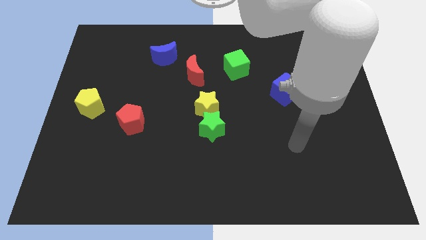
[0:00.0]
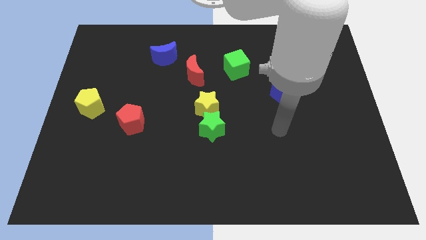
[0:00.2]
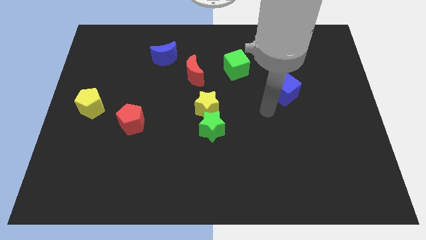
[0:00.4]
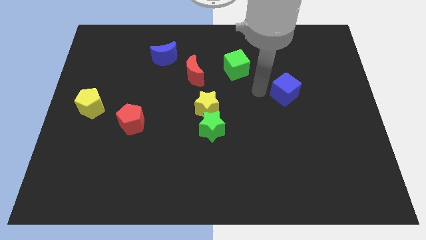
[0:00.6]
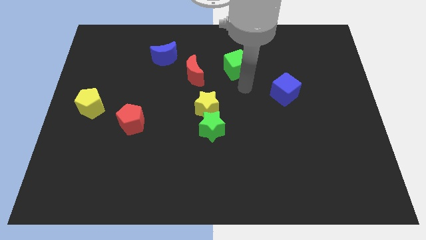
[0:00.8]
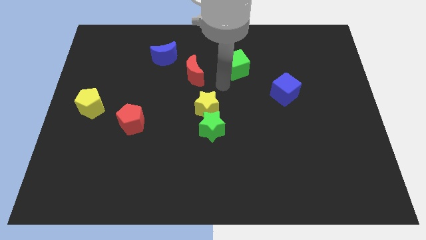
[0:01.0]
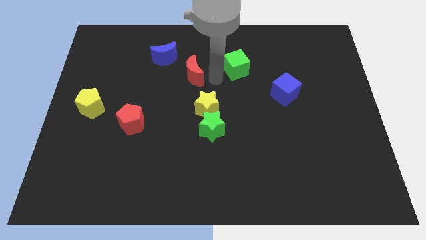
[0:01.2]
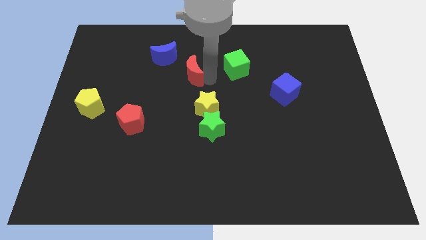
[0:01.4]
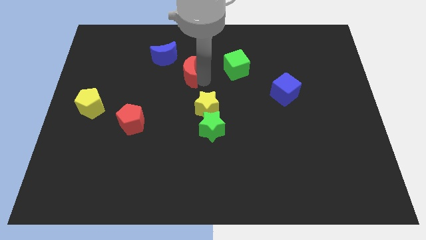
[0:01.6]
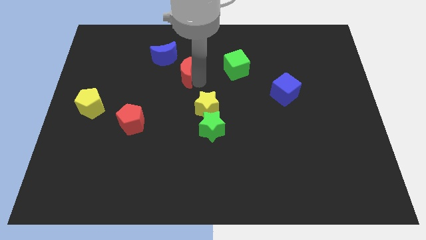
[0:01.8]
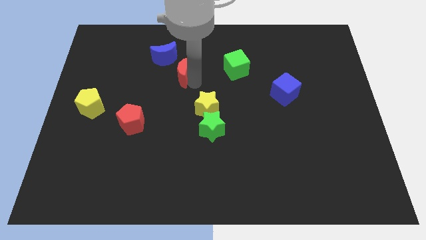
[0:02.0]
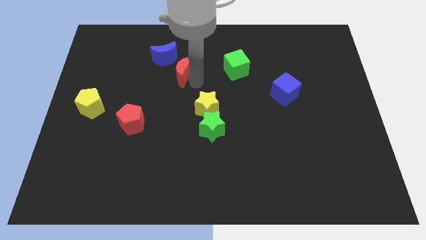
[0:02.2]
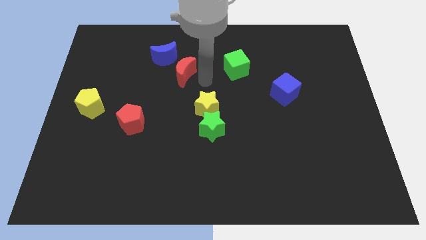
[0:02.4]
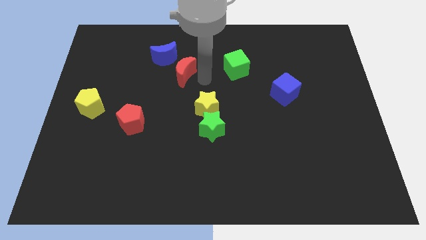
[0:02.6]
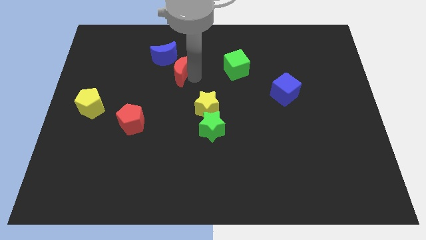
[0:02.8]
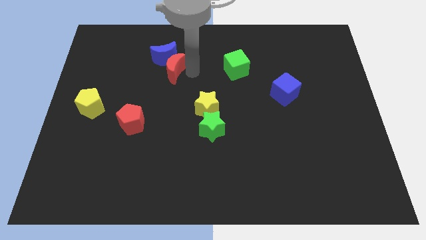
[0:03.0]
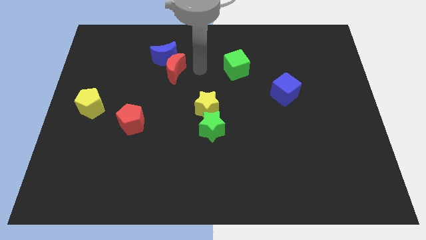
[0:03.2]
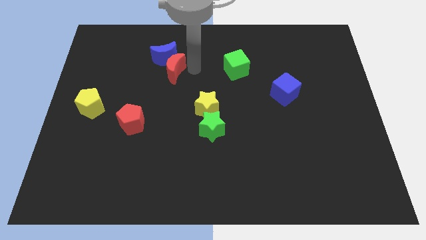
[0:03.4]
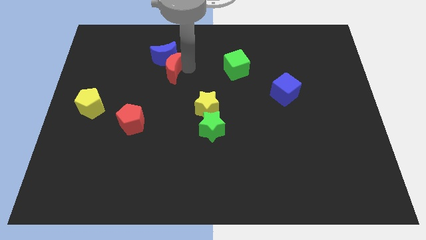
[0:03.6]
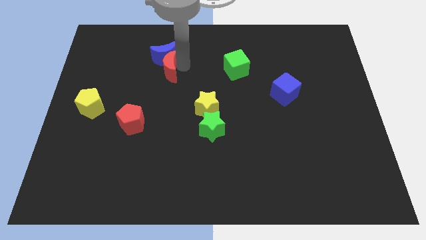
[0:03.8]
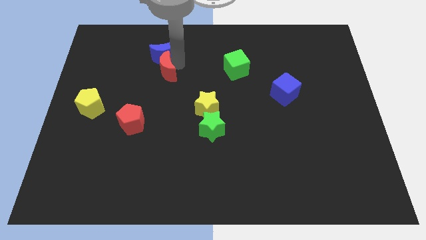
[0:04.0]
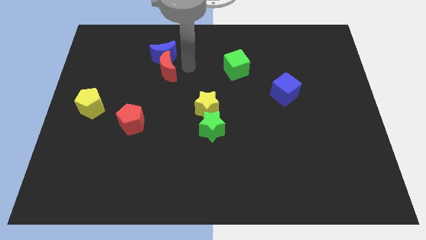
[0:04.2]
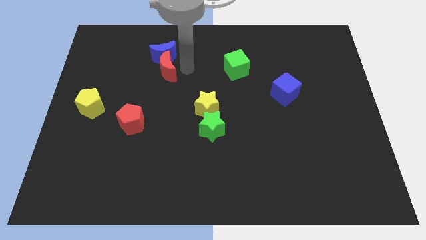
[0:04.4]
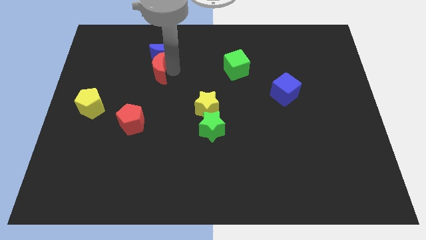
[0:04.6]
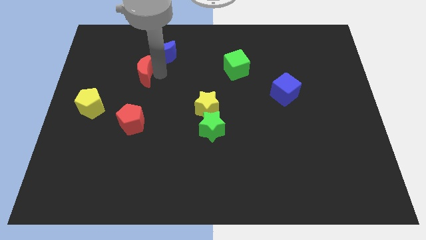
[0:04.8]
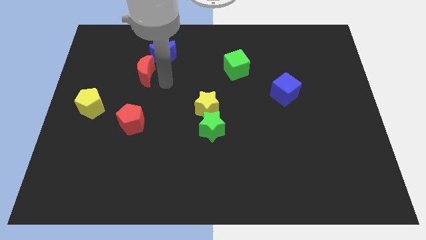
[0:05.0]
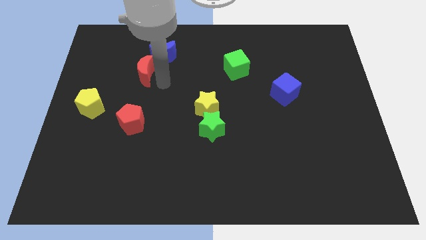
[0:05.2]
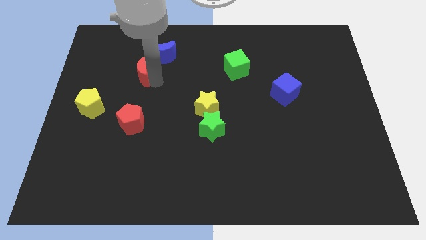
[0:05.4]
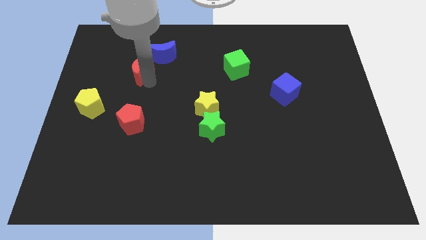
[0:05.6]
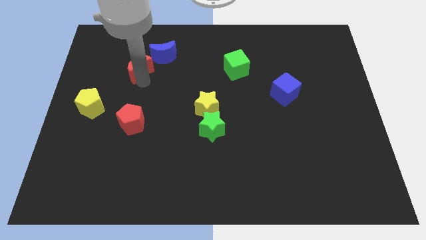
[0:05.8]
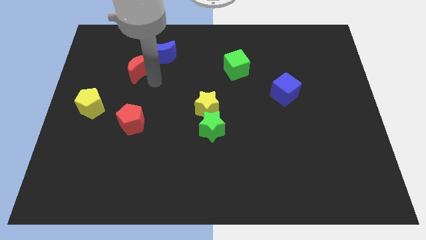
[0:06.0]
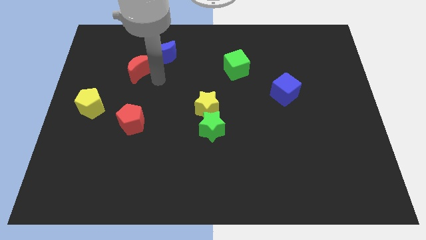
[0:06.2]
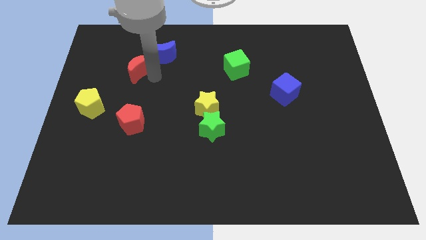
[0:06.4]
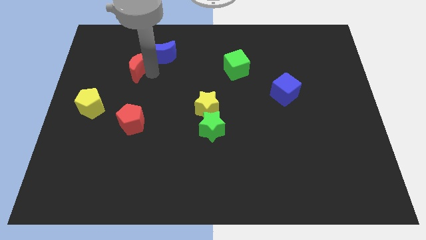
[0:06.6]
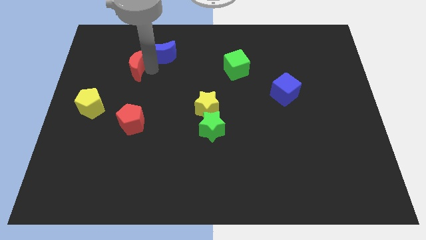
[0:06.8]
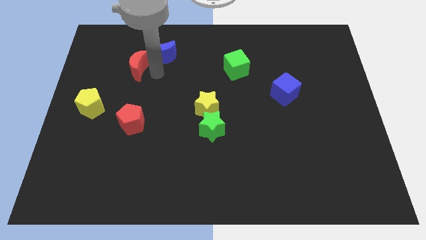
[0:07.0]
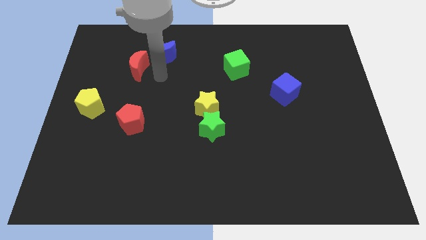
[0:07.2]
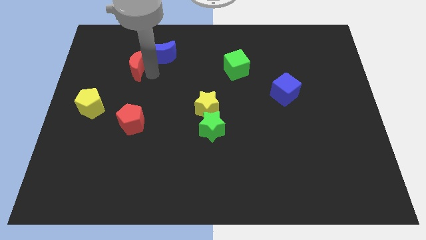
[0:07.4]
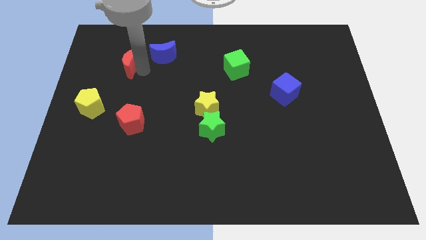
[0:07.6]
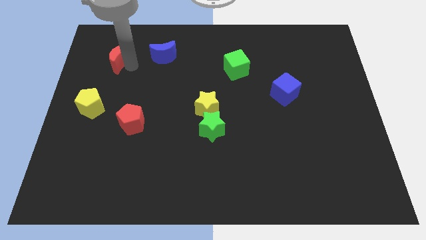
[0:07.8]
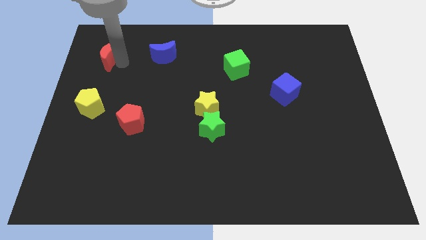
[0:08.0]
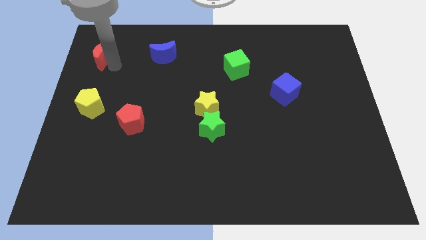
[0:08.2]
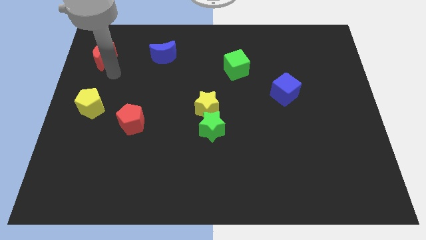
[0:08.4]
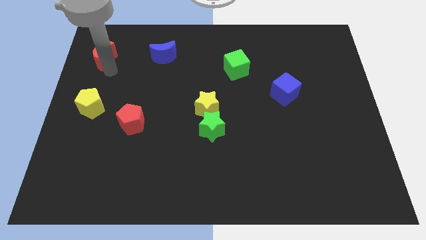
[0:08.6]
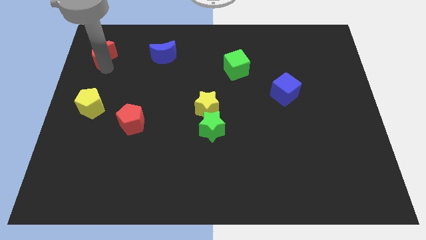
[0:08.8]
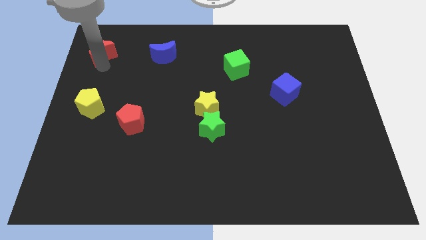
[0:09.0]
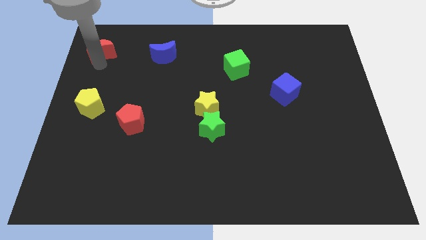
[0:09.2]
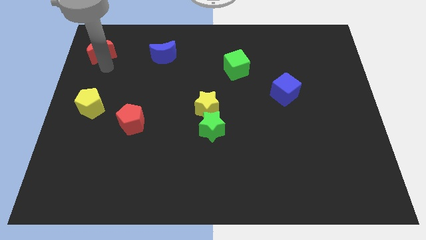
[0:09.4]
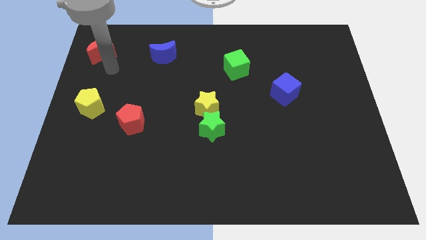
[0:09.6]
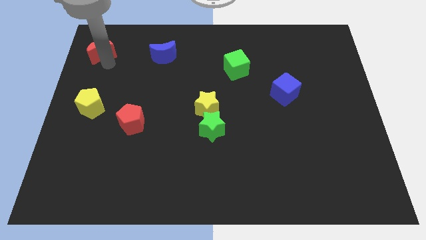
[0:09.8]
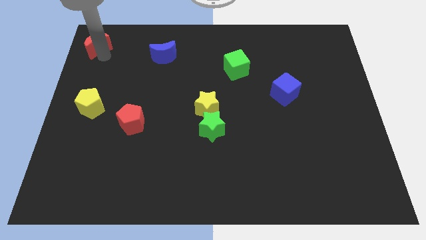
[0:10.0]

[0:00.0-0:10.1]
push the red moon to the upper left corner

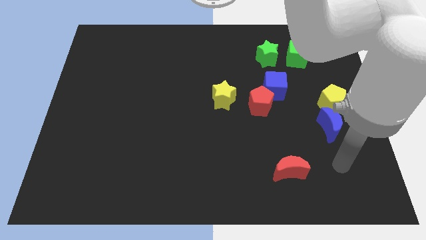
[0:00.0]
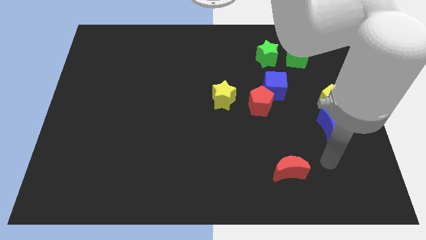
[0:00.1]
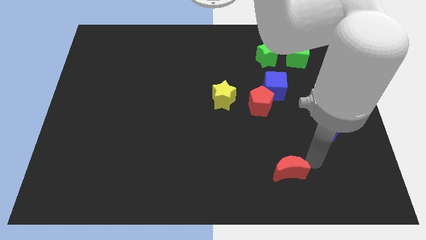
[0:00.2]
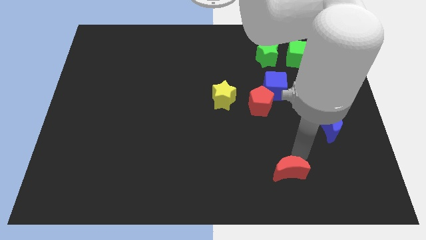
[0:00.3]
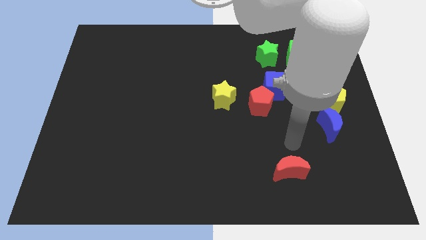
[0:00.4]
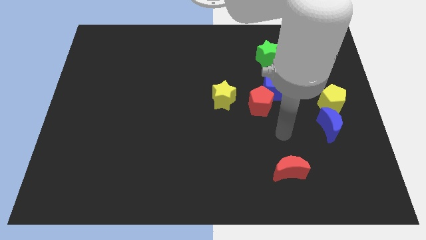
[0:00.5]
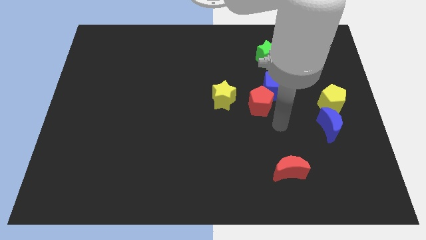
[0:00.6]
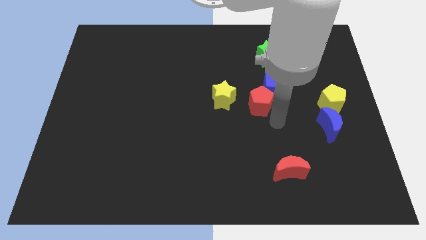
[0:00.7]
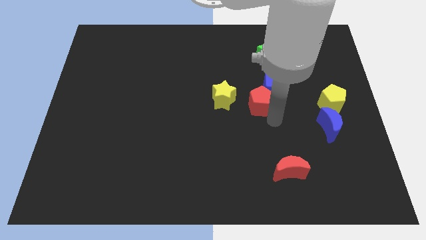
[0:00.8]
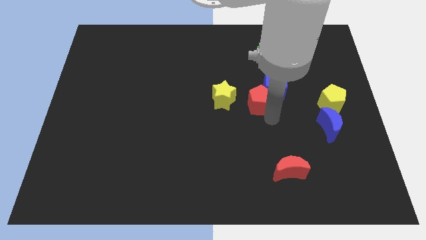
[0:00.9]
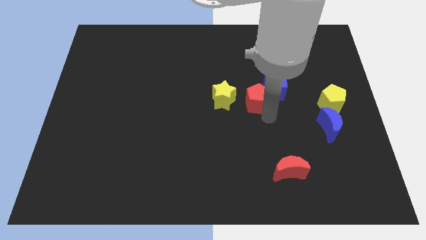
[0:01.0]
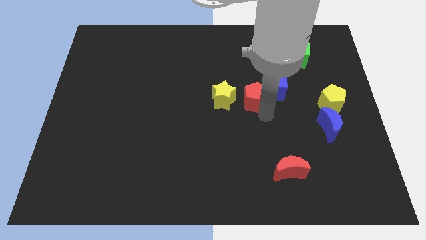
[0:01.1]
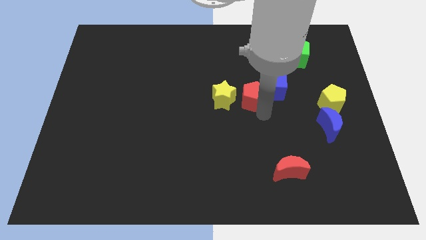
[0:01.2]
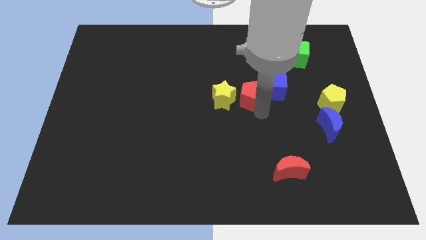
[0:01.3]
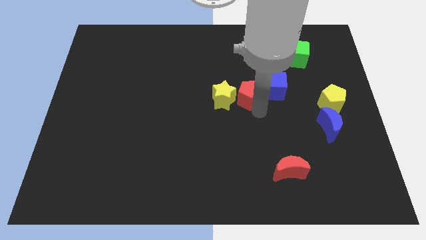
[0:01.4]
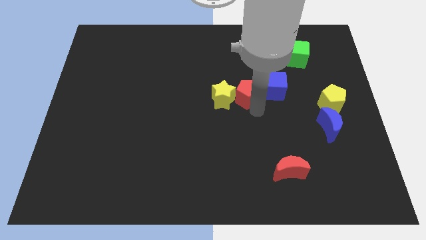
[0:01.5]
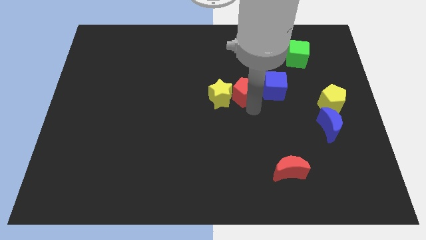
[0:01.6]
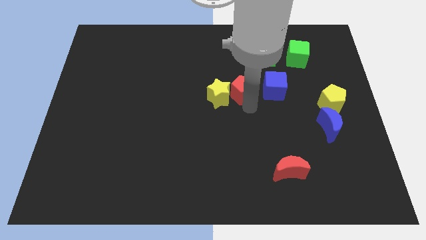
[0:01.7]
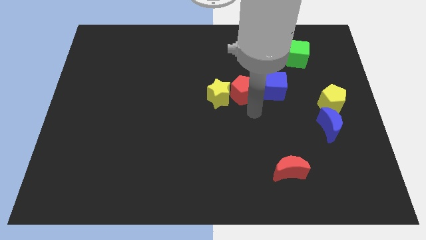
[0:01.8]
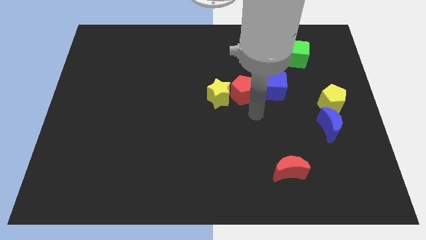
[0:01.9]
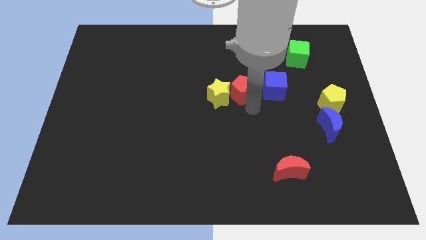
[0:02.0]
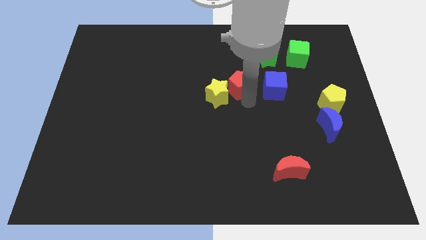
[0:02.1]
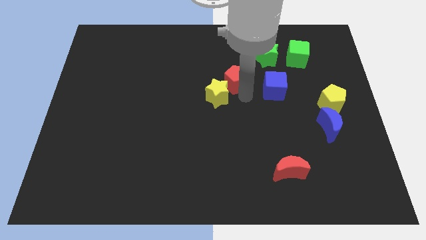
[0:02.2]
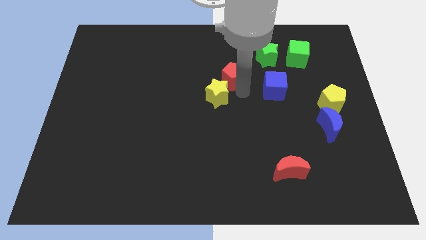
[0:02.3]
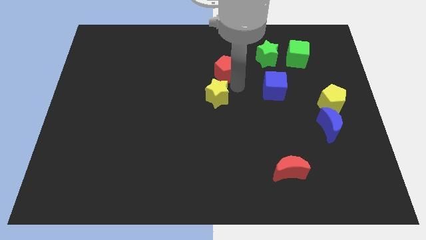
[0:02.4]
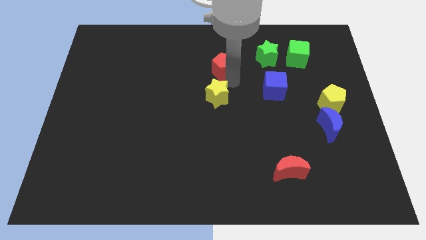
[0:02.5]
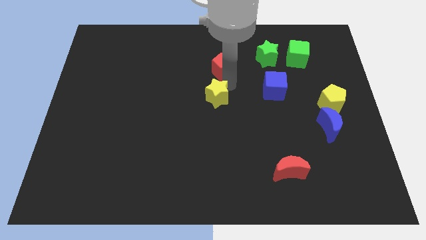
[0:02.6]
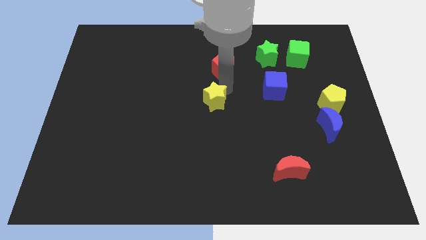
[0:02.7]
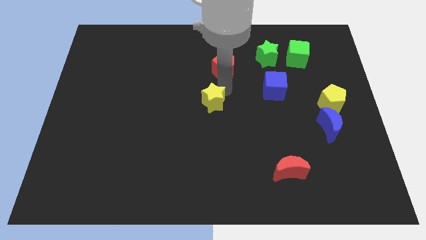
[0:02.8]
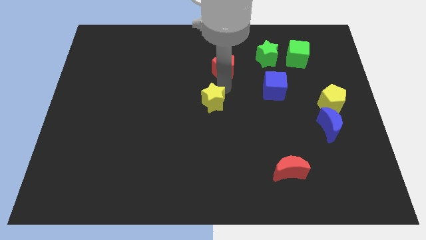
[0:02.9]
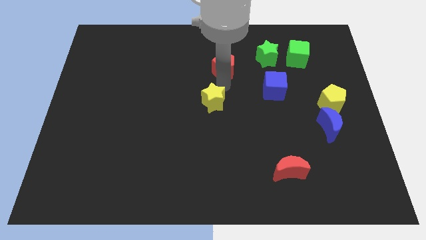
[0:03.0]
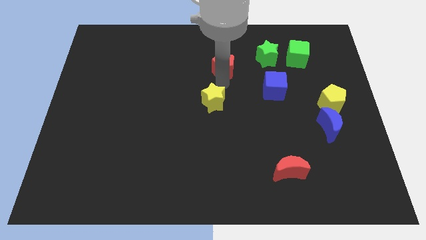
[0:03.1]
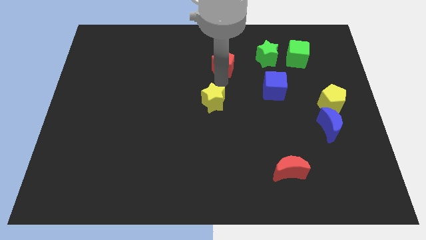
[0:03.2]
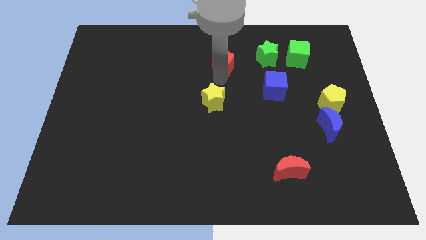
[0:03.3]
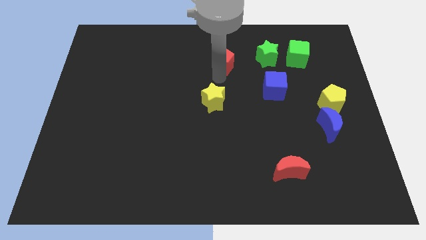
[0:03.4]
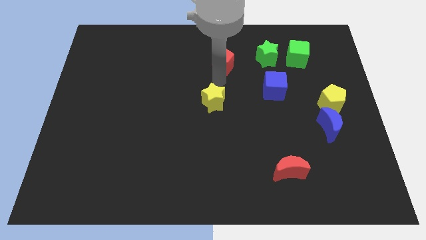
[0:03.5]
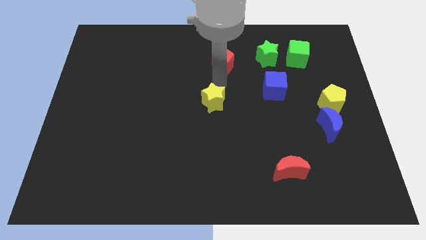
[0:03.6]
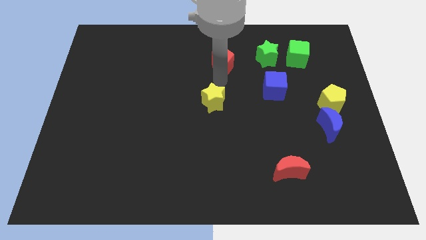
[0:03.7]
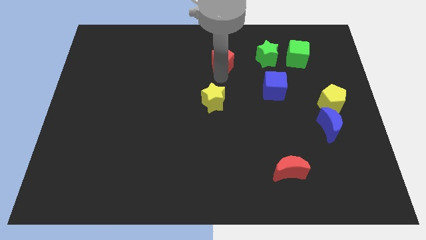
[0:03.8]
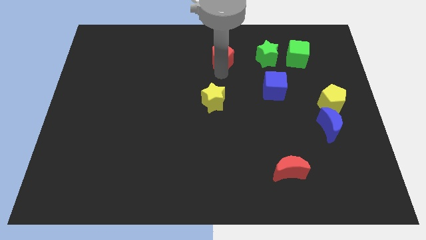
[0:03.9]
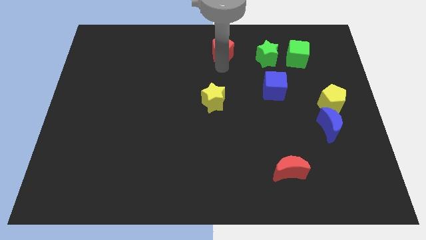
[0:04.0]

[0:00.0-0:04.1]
slide the red pentagon to the towards your base
